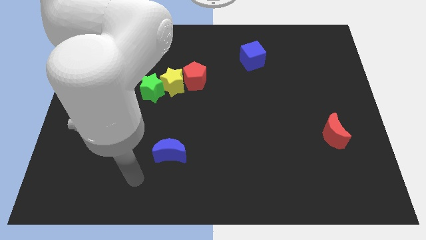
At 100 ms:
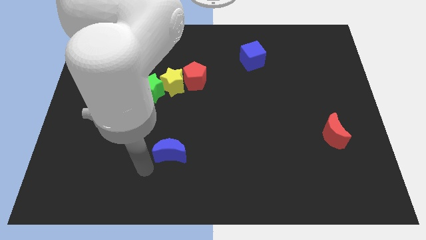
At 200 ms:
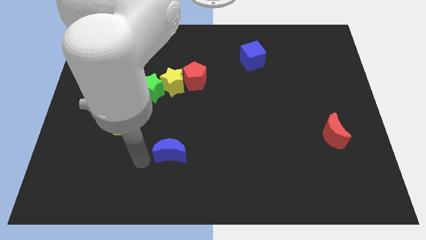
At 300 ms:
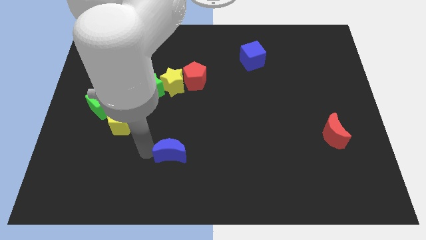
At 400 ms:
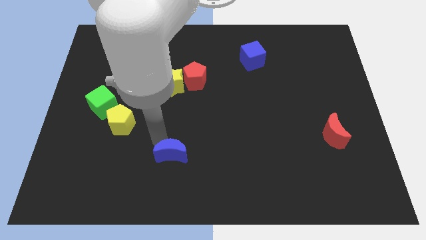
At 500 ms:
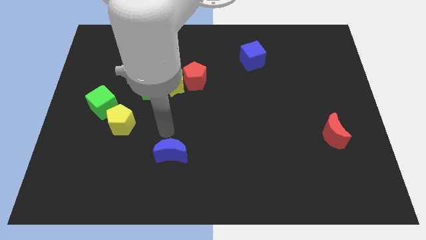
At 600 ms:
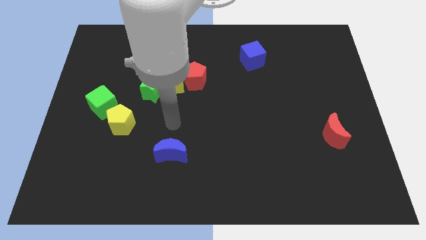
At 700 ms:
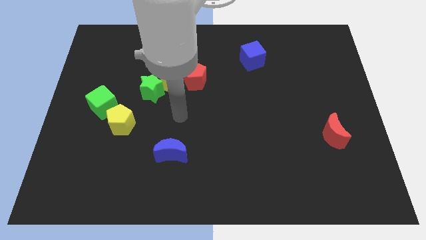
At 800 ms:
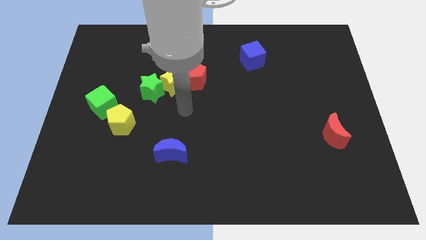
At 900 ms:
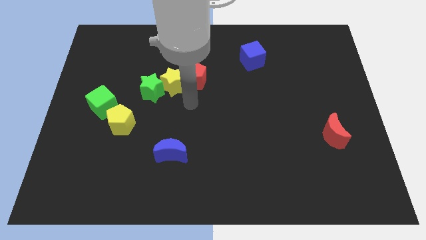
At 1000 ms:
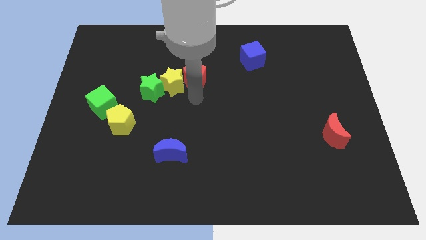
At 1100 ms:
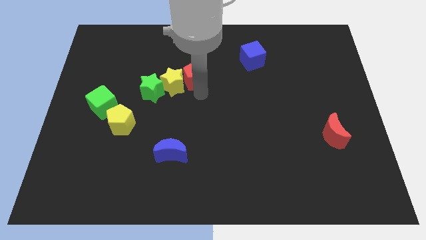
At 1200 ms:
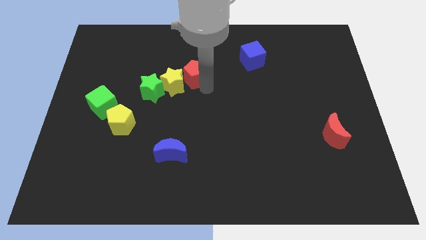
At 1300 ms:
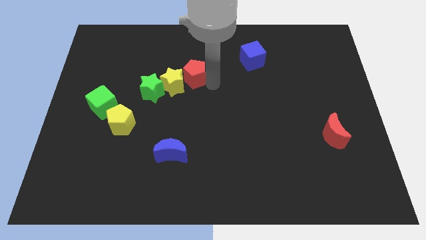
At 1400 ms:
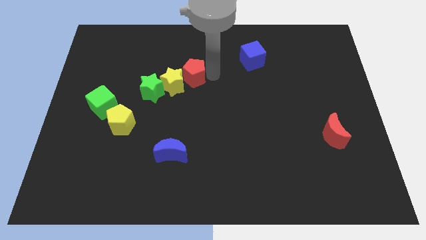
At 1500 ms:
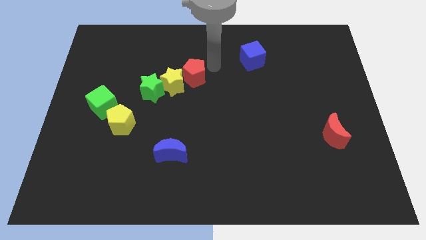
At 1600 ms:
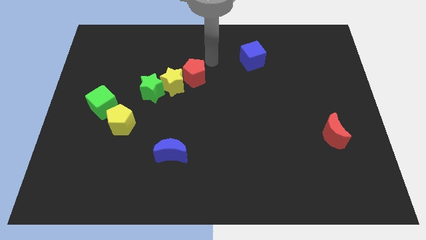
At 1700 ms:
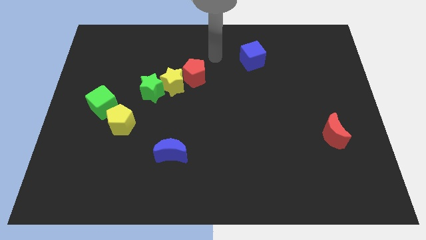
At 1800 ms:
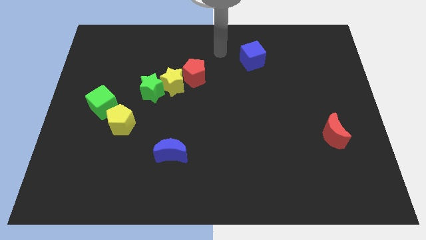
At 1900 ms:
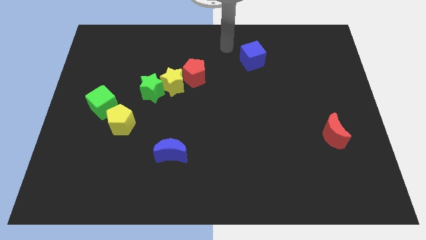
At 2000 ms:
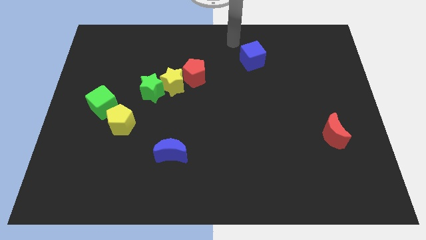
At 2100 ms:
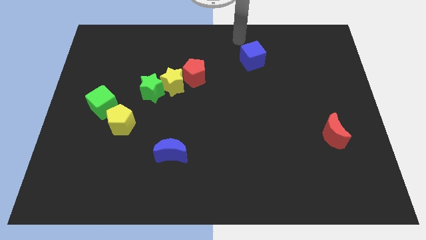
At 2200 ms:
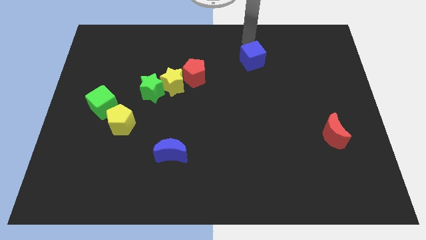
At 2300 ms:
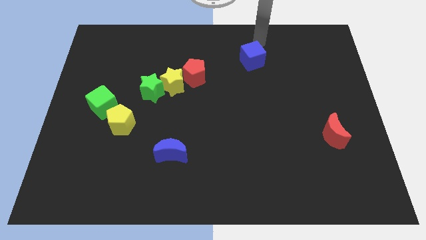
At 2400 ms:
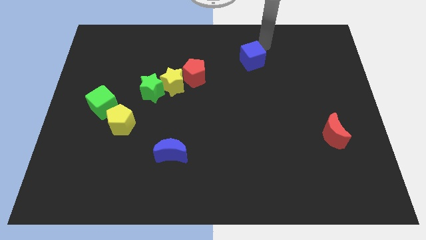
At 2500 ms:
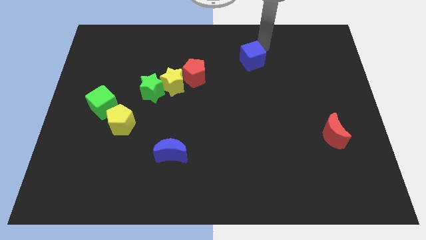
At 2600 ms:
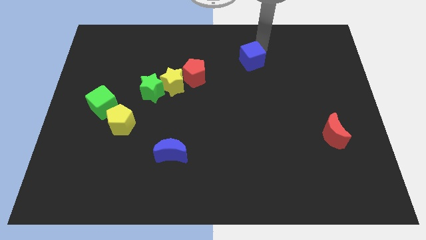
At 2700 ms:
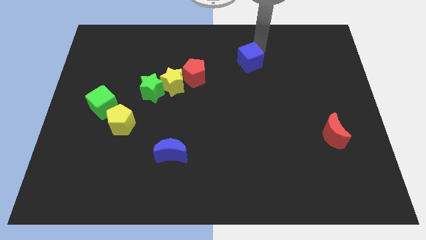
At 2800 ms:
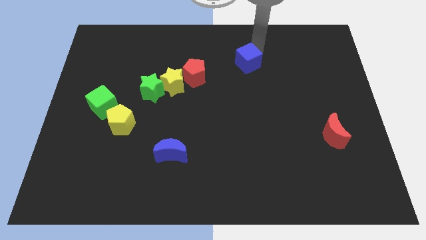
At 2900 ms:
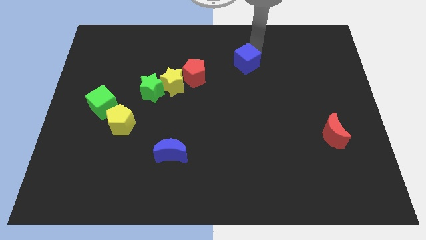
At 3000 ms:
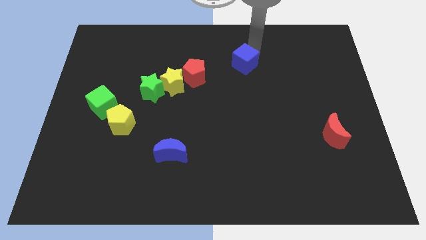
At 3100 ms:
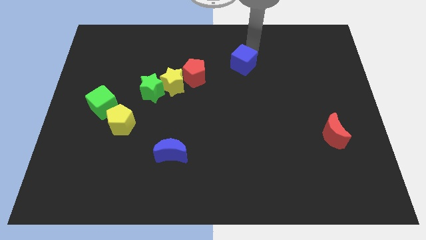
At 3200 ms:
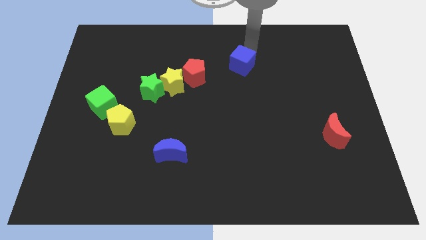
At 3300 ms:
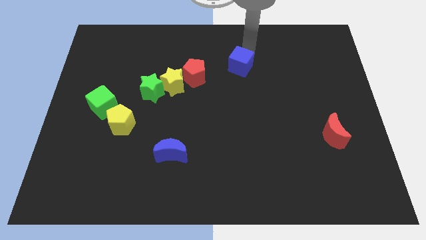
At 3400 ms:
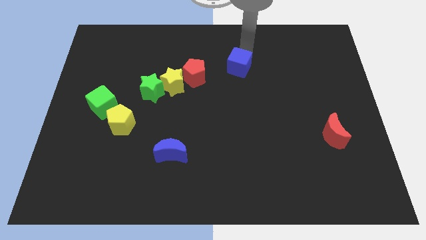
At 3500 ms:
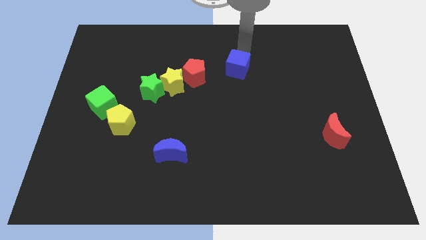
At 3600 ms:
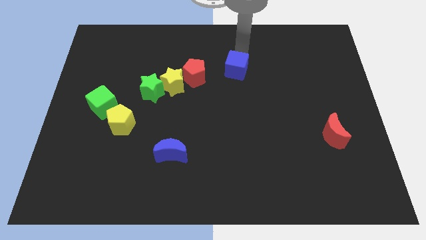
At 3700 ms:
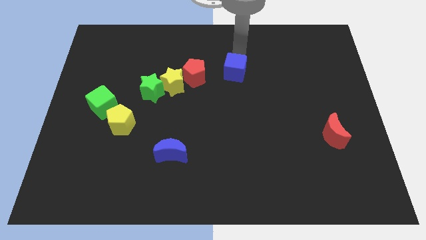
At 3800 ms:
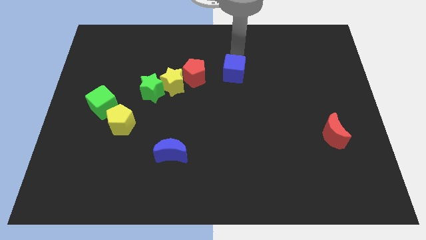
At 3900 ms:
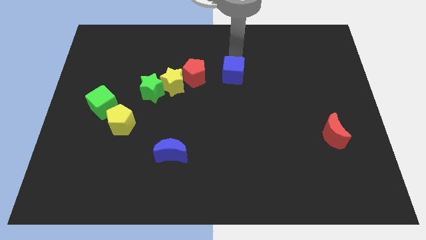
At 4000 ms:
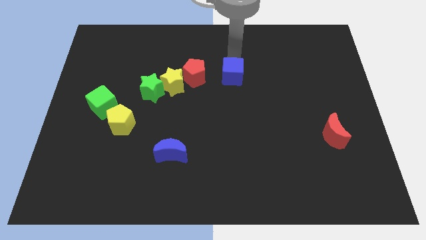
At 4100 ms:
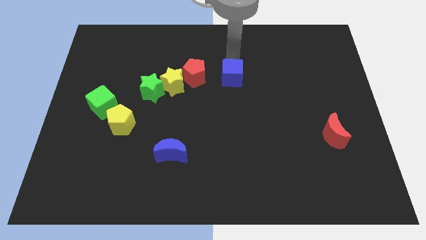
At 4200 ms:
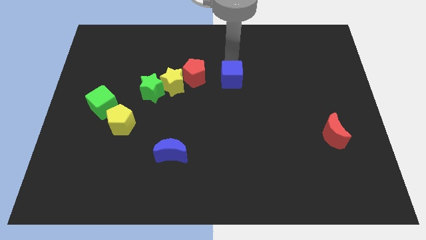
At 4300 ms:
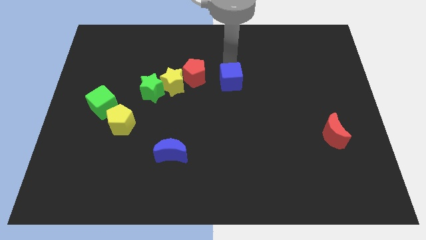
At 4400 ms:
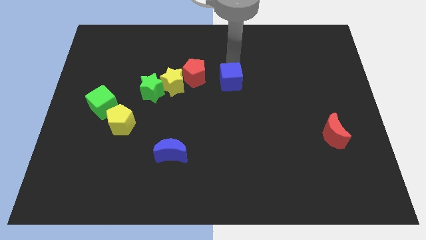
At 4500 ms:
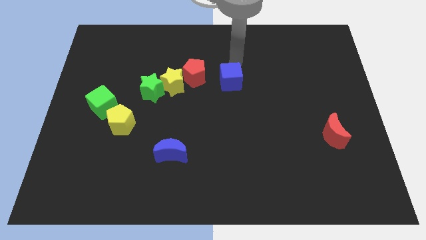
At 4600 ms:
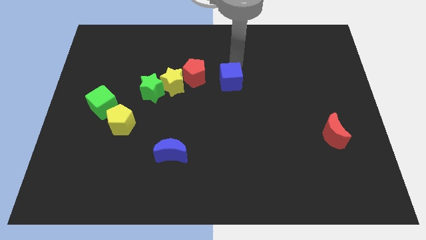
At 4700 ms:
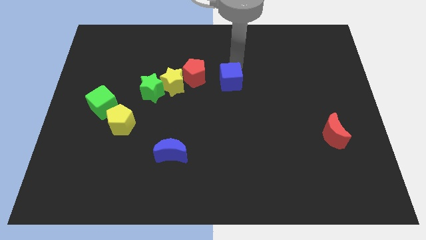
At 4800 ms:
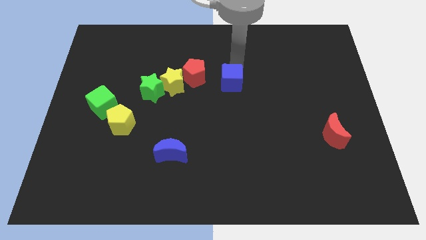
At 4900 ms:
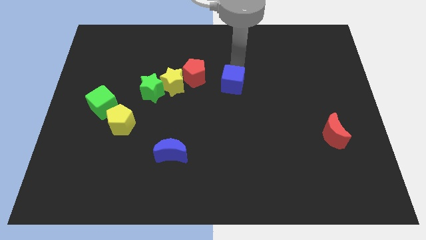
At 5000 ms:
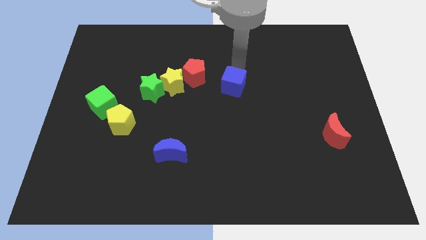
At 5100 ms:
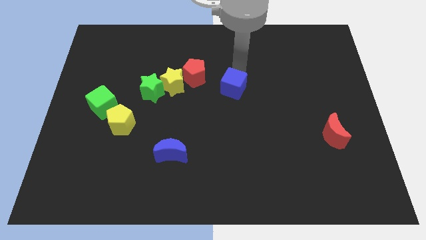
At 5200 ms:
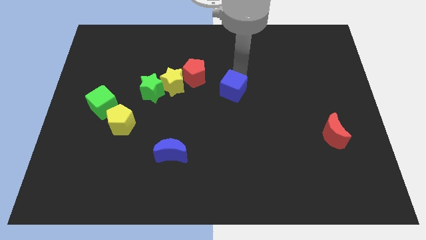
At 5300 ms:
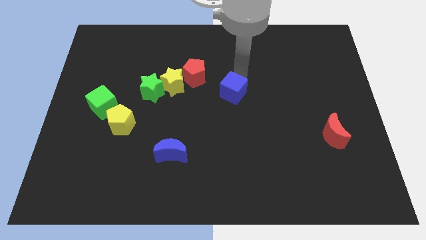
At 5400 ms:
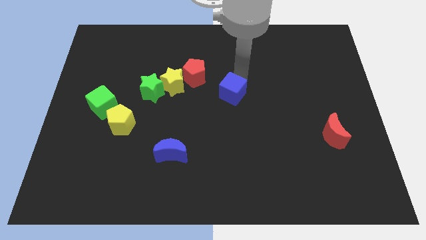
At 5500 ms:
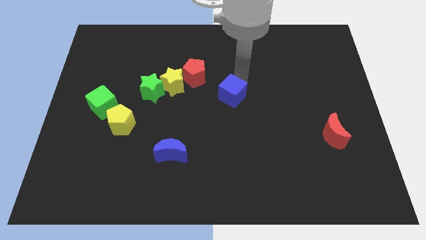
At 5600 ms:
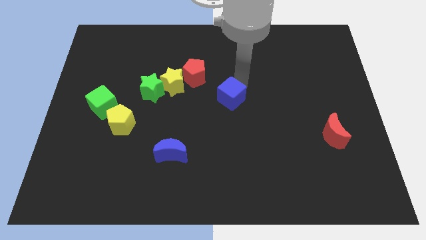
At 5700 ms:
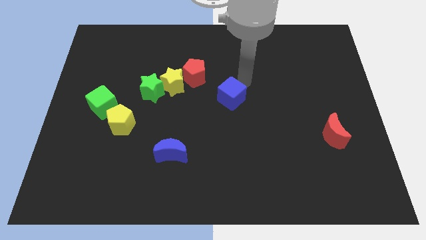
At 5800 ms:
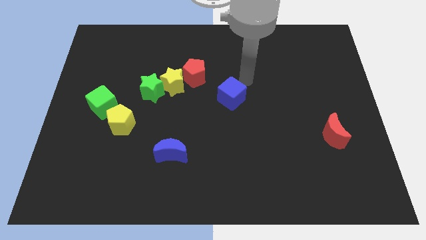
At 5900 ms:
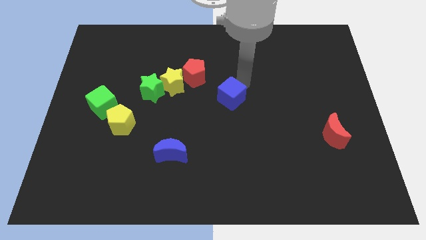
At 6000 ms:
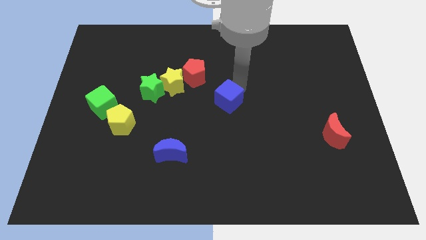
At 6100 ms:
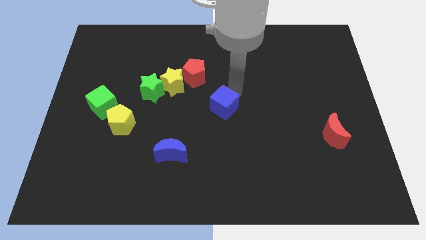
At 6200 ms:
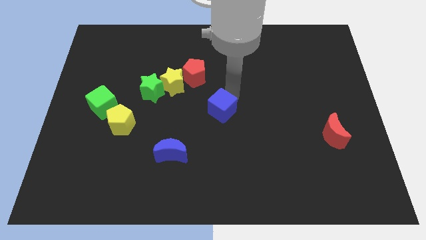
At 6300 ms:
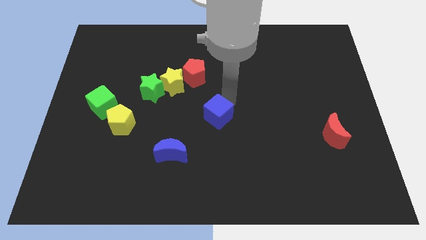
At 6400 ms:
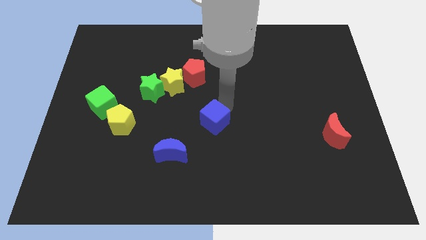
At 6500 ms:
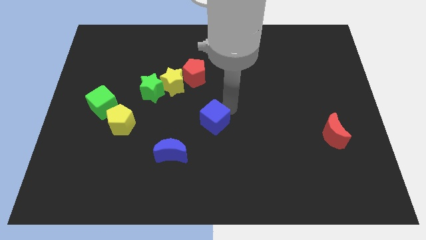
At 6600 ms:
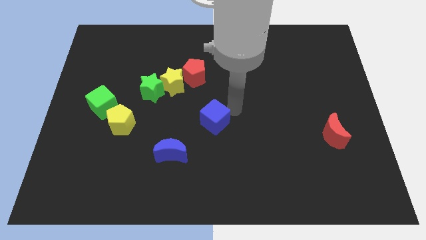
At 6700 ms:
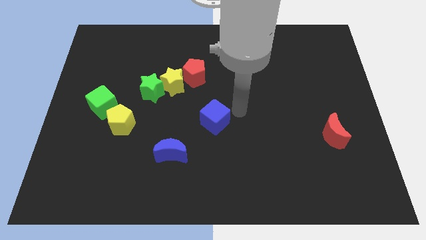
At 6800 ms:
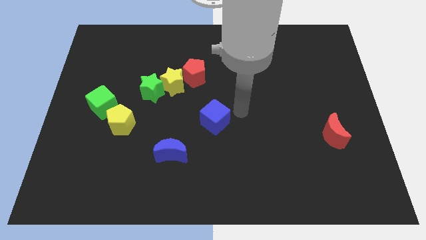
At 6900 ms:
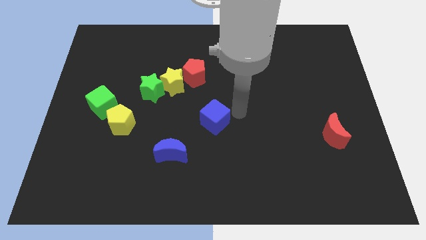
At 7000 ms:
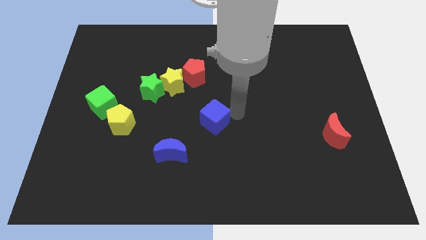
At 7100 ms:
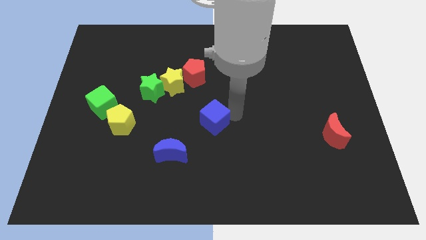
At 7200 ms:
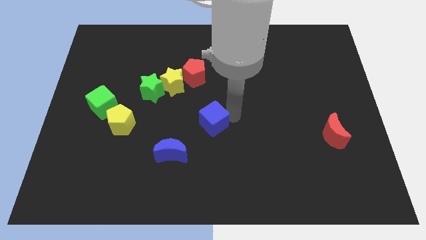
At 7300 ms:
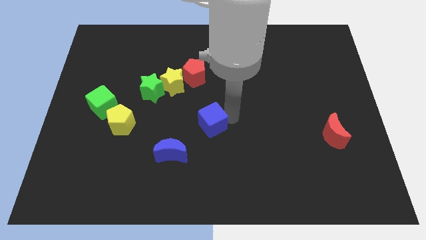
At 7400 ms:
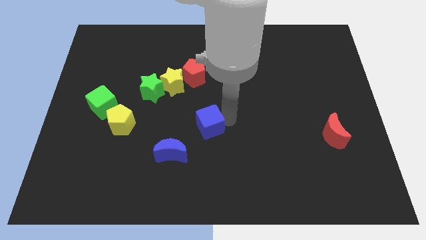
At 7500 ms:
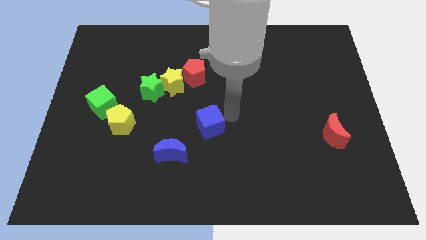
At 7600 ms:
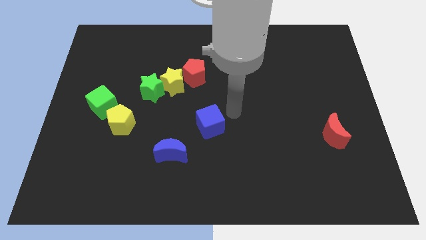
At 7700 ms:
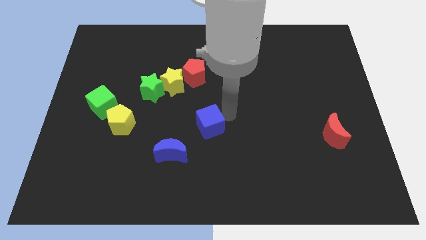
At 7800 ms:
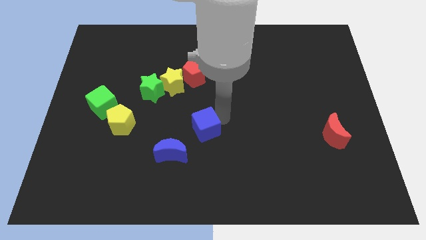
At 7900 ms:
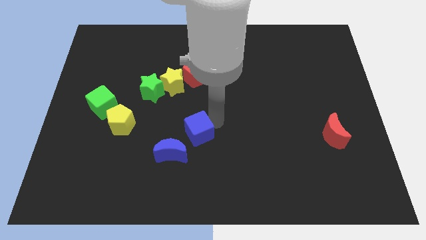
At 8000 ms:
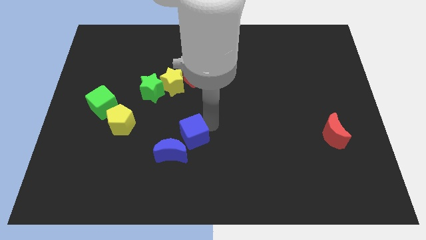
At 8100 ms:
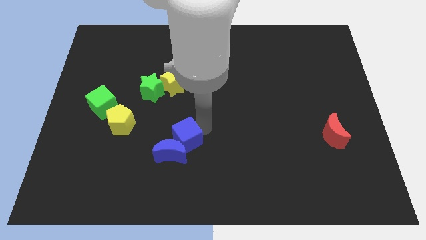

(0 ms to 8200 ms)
put the blue cube close to the blue moon
